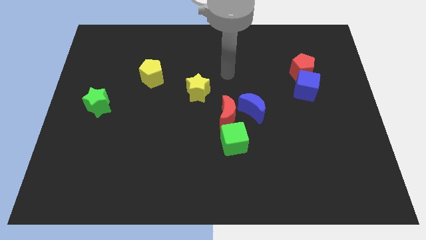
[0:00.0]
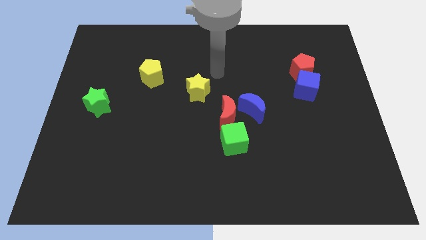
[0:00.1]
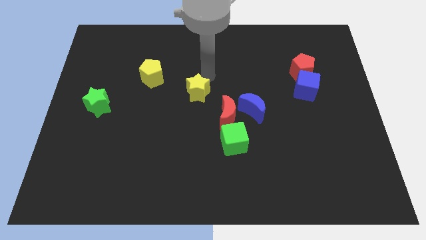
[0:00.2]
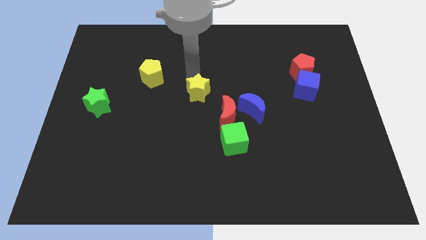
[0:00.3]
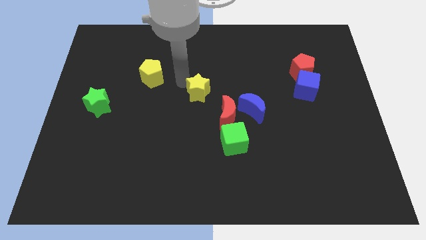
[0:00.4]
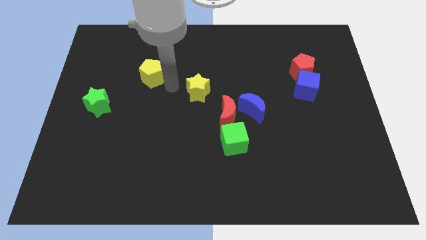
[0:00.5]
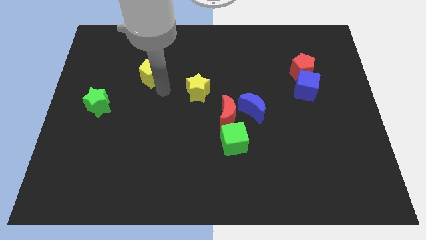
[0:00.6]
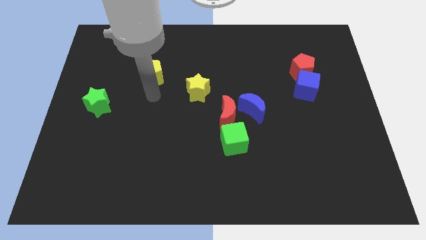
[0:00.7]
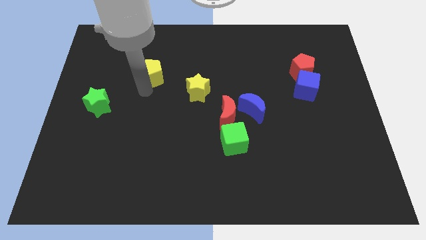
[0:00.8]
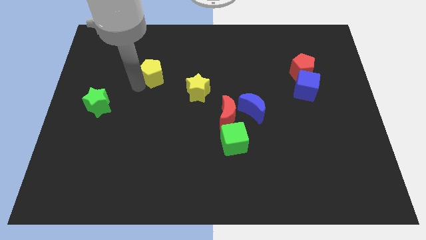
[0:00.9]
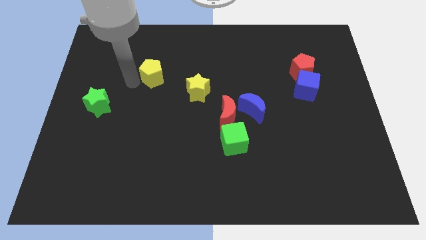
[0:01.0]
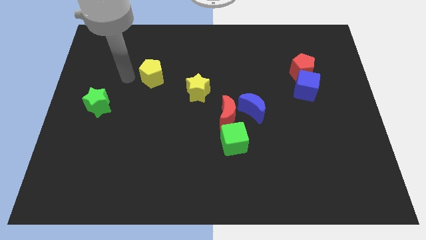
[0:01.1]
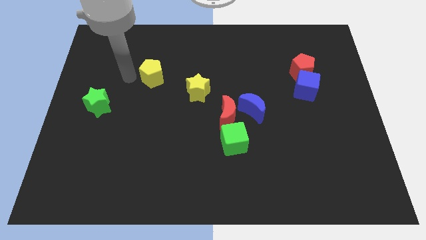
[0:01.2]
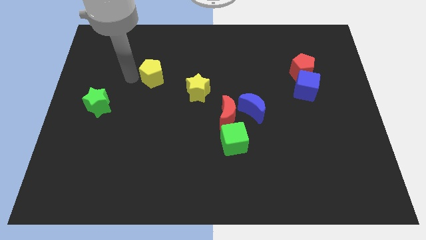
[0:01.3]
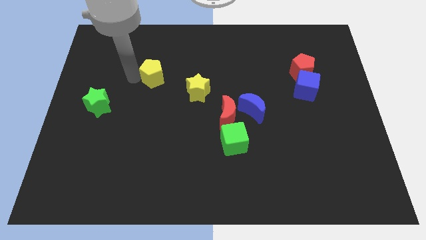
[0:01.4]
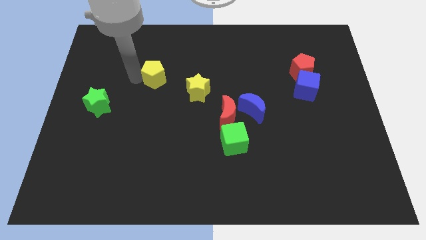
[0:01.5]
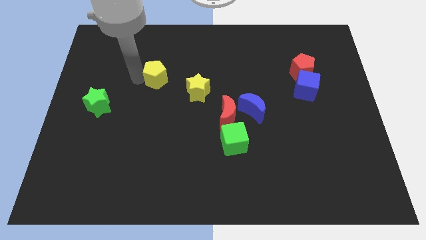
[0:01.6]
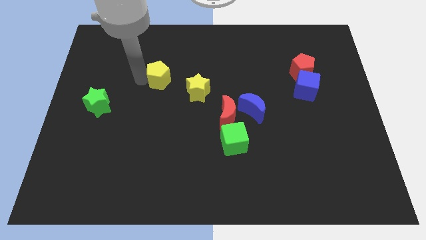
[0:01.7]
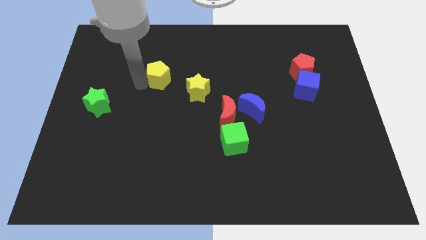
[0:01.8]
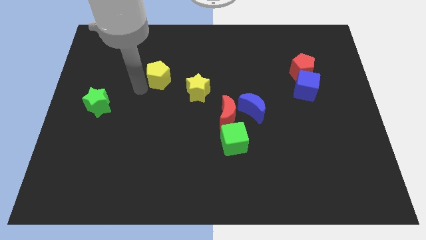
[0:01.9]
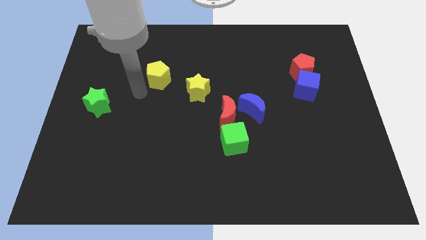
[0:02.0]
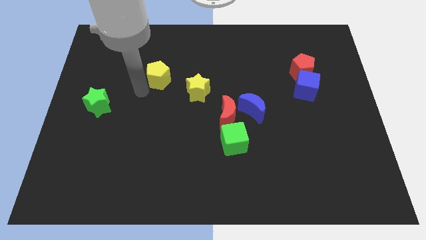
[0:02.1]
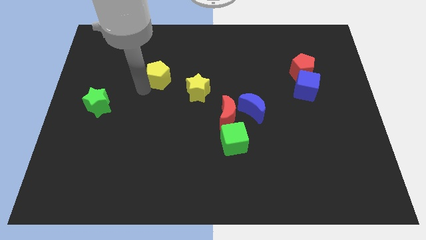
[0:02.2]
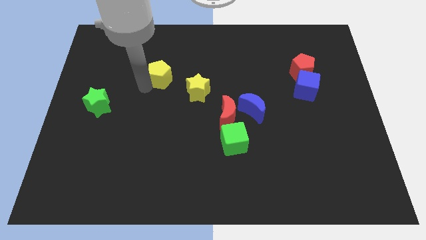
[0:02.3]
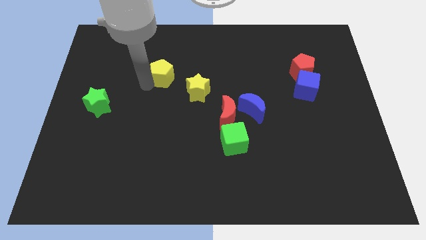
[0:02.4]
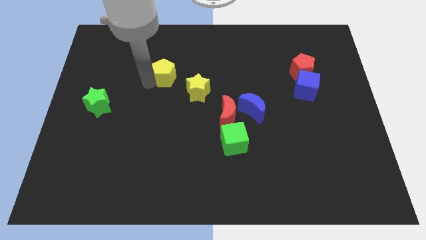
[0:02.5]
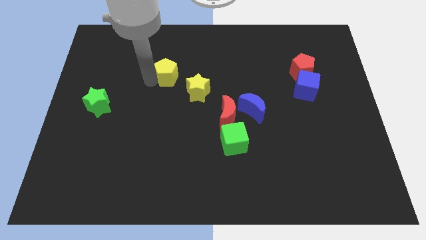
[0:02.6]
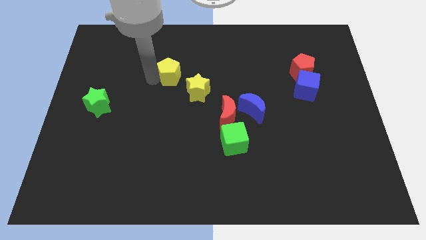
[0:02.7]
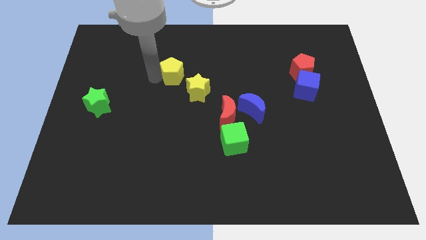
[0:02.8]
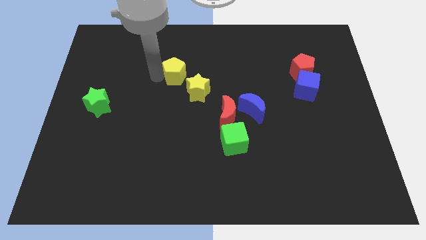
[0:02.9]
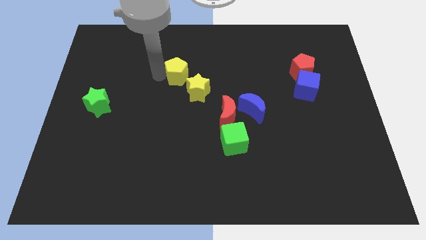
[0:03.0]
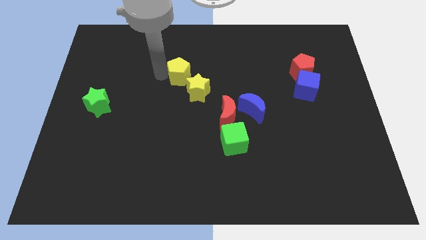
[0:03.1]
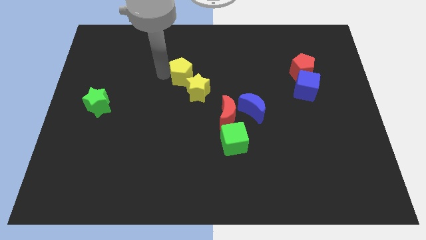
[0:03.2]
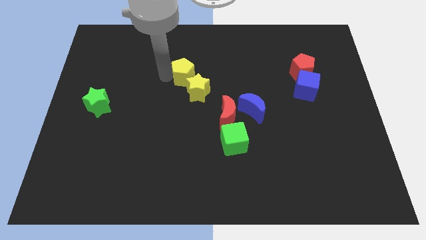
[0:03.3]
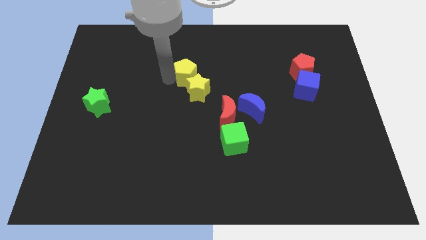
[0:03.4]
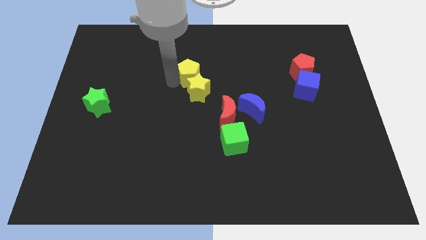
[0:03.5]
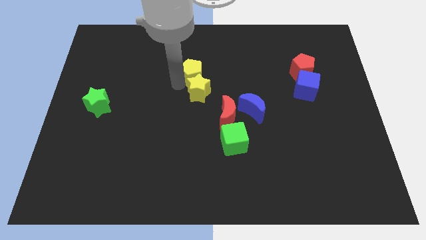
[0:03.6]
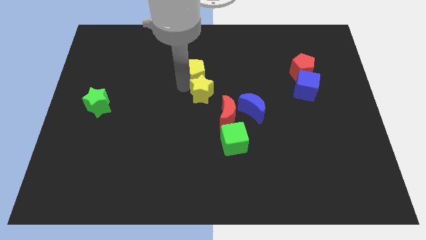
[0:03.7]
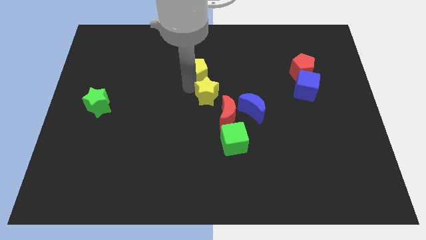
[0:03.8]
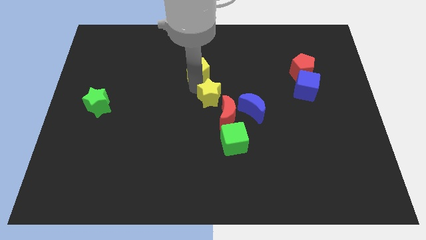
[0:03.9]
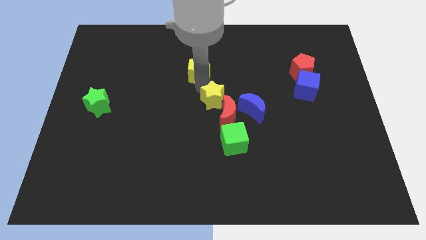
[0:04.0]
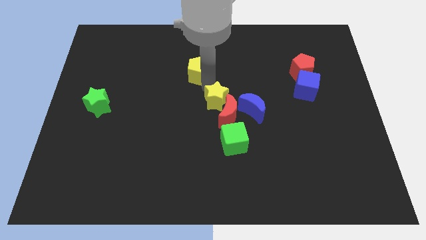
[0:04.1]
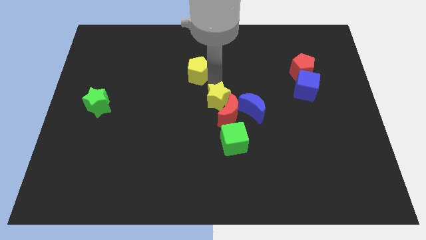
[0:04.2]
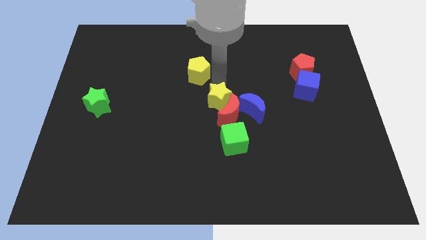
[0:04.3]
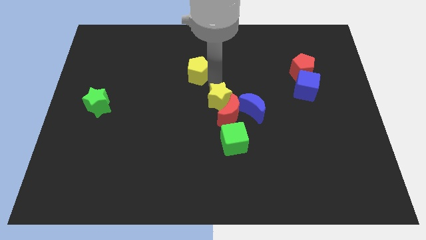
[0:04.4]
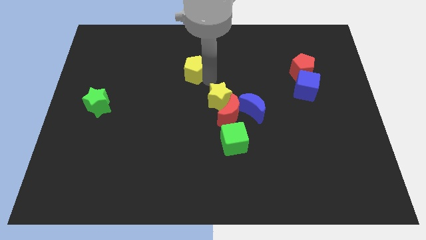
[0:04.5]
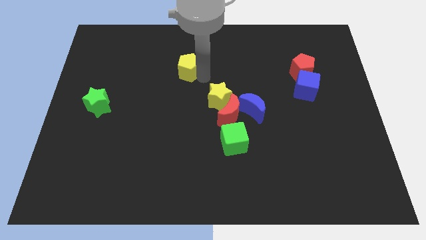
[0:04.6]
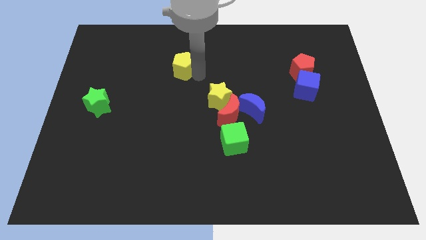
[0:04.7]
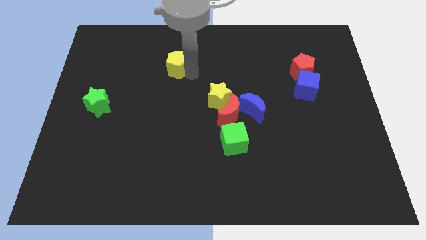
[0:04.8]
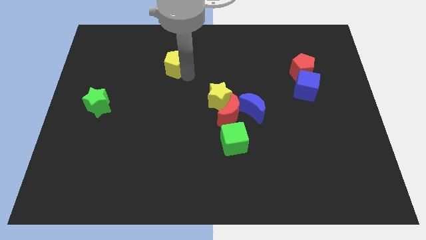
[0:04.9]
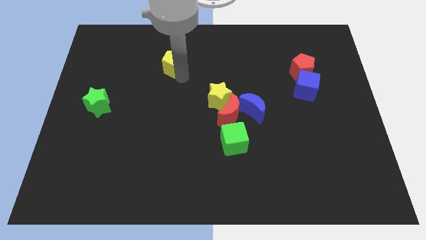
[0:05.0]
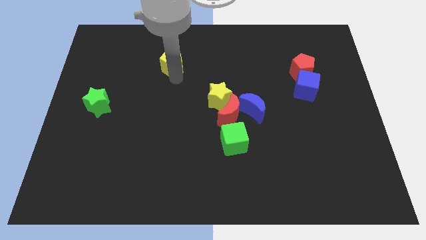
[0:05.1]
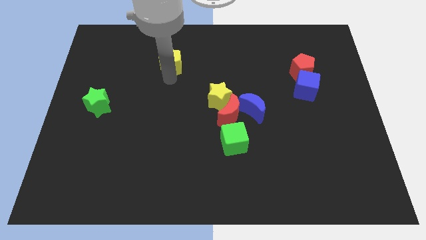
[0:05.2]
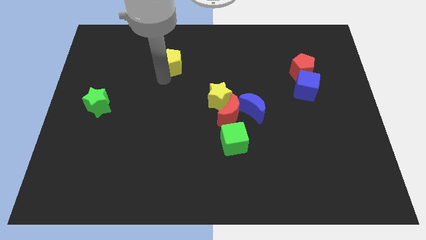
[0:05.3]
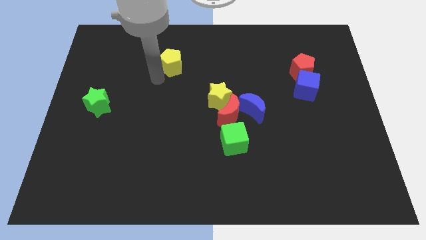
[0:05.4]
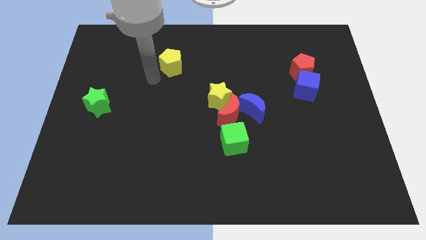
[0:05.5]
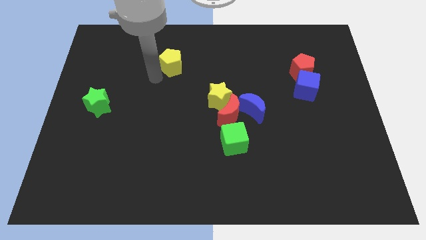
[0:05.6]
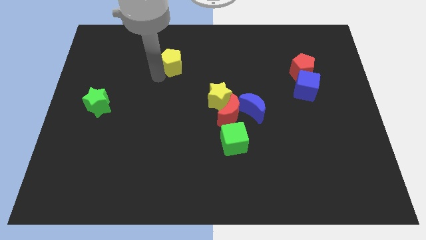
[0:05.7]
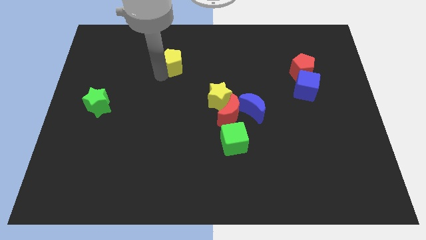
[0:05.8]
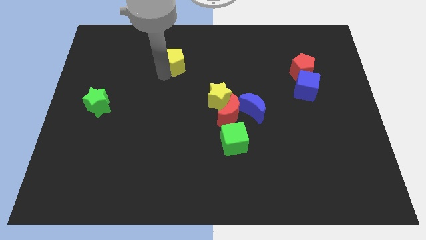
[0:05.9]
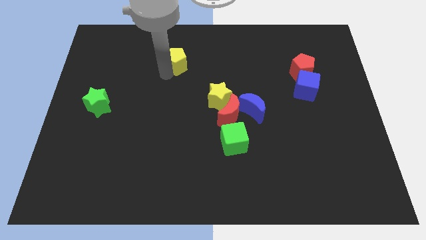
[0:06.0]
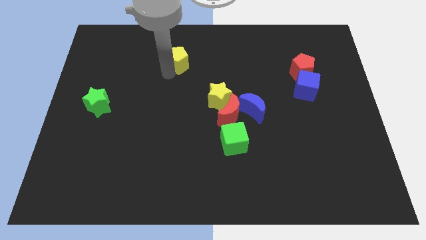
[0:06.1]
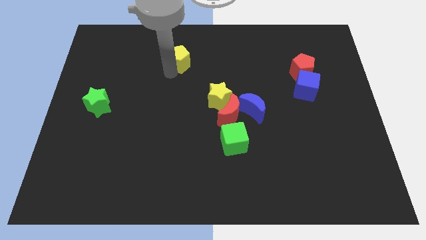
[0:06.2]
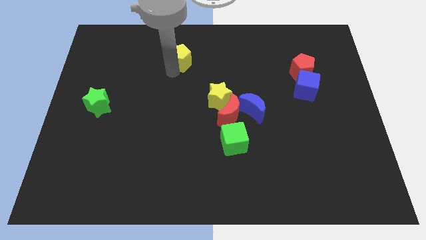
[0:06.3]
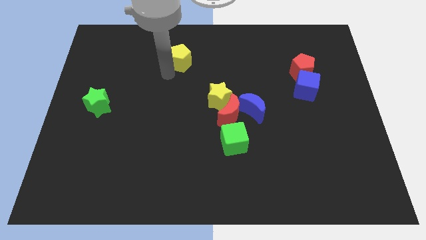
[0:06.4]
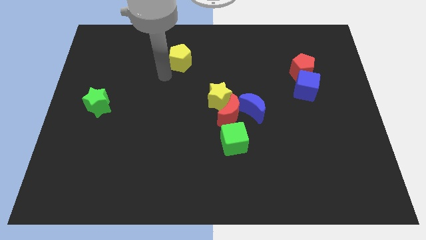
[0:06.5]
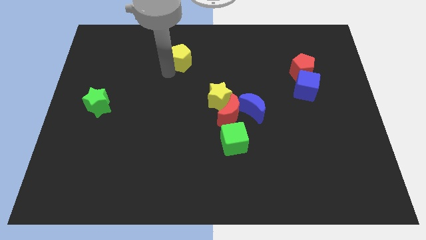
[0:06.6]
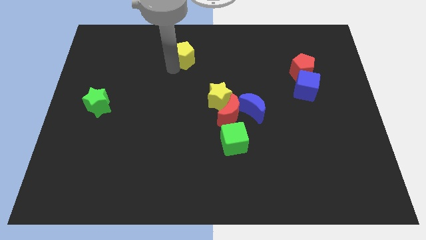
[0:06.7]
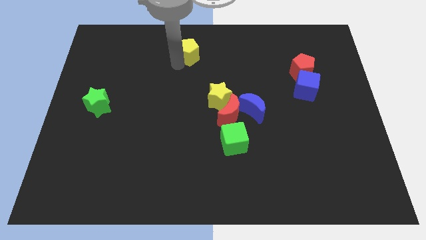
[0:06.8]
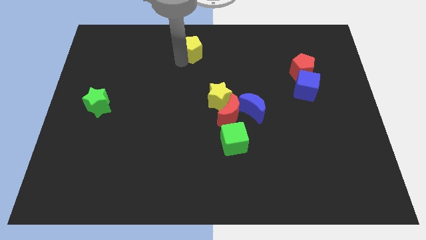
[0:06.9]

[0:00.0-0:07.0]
move the yellow pentagon to the towards your base

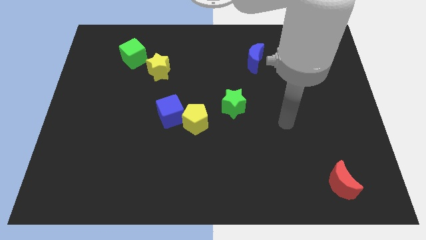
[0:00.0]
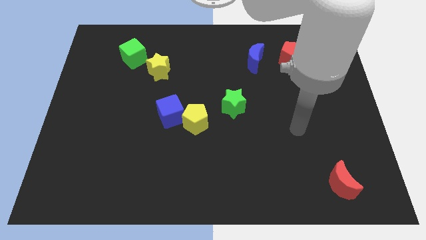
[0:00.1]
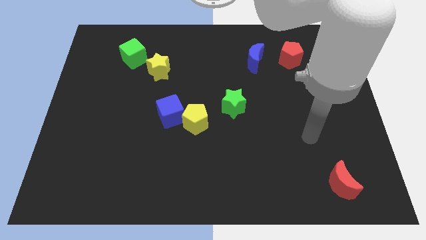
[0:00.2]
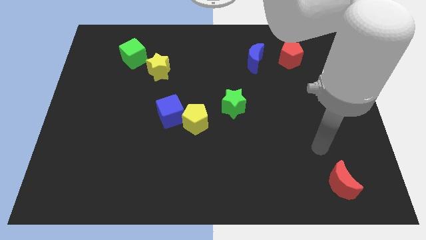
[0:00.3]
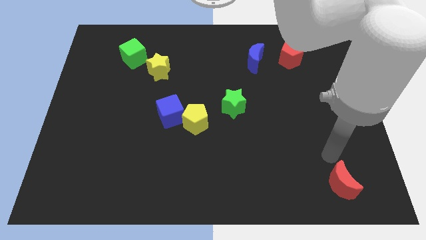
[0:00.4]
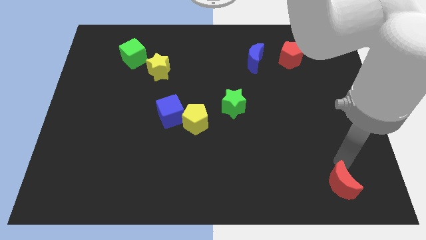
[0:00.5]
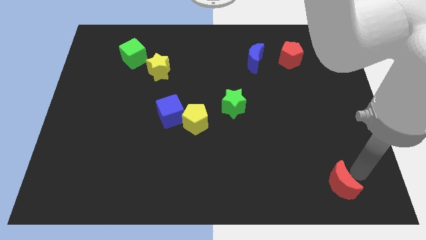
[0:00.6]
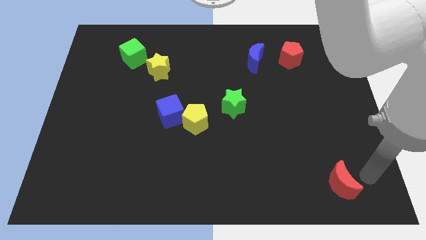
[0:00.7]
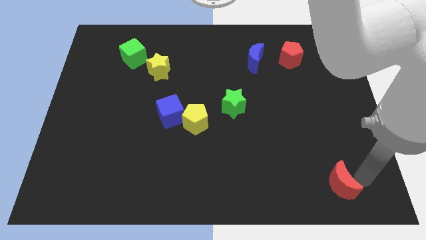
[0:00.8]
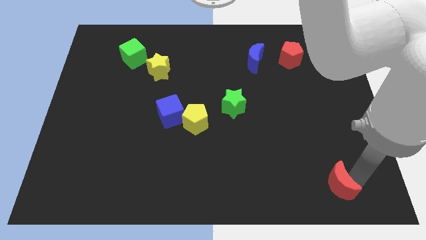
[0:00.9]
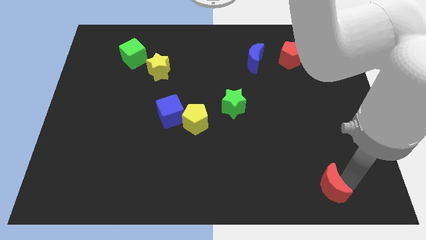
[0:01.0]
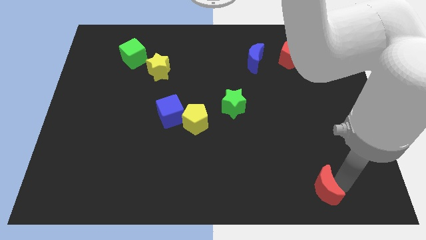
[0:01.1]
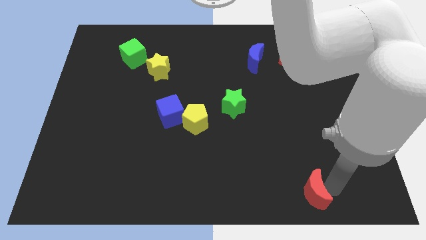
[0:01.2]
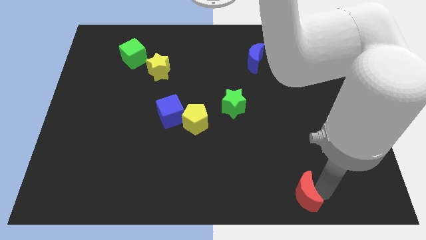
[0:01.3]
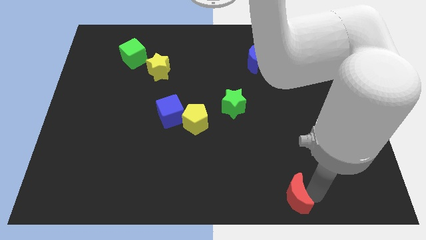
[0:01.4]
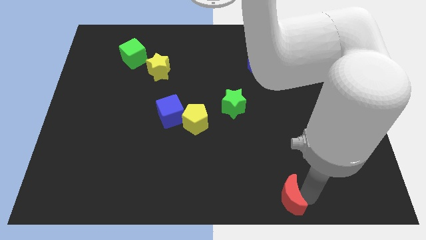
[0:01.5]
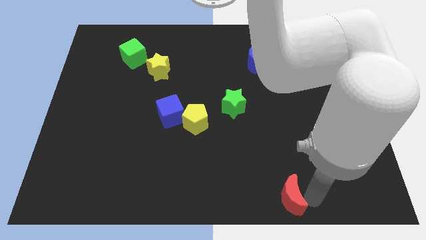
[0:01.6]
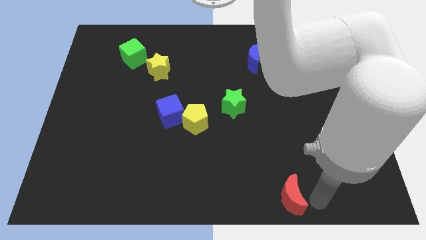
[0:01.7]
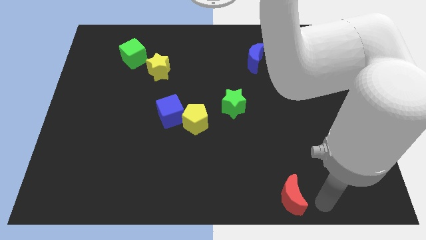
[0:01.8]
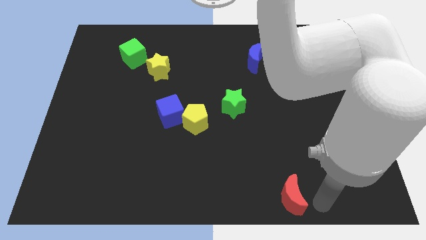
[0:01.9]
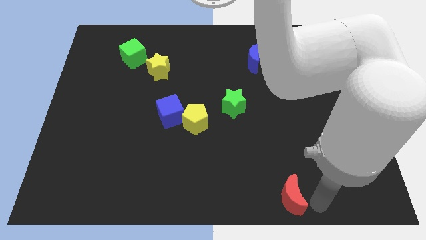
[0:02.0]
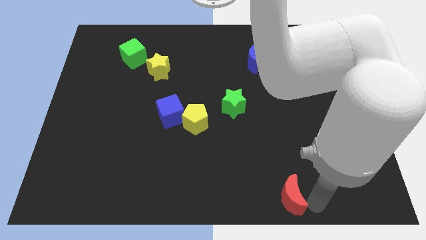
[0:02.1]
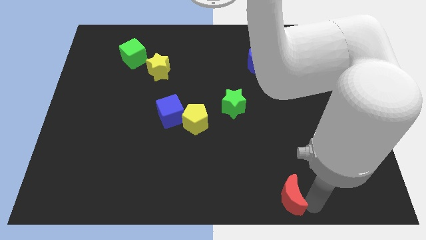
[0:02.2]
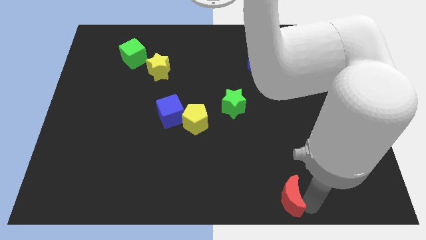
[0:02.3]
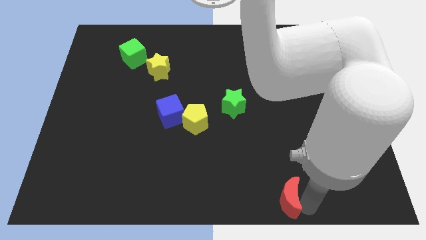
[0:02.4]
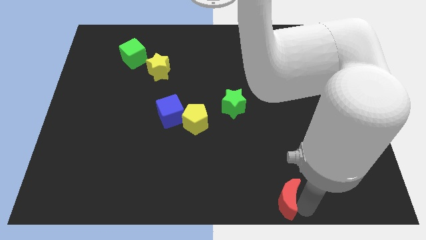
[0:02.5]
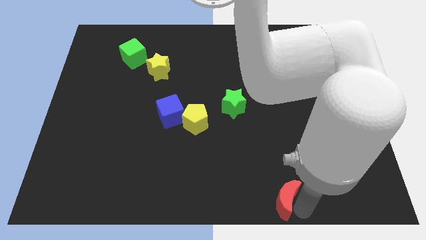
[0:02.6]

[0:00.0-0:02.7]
push the red moon to the bottom
